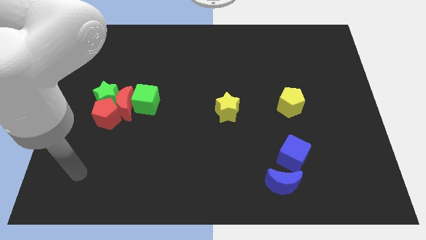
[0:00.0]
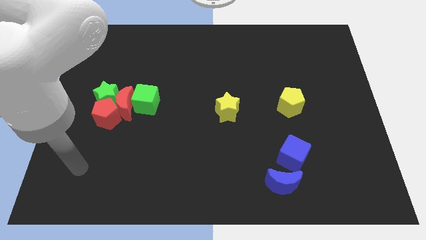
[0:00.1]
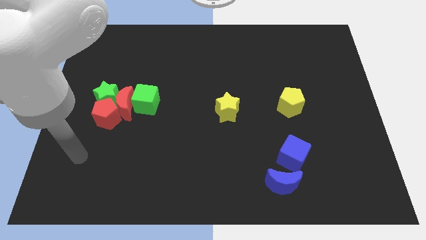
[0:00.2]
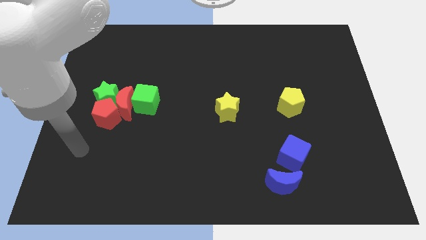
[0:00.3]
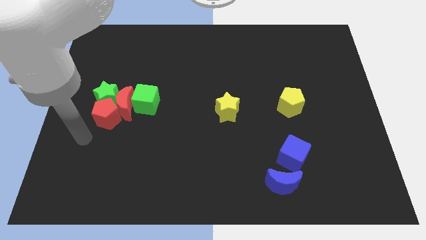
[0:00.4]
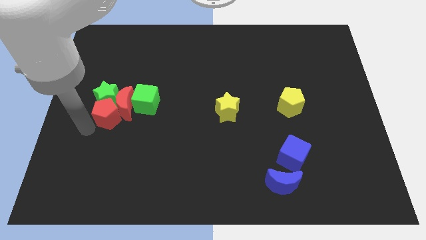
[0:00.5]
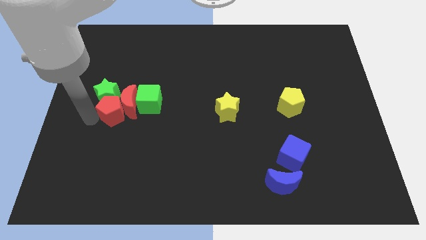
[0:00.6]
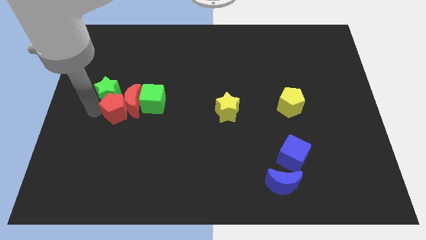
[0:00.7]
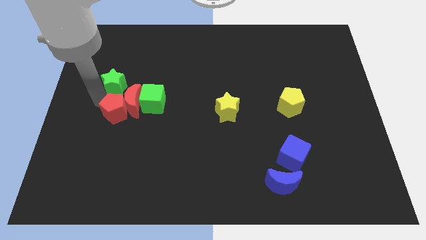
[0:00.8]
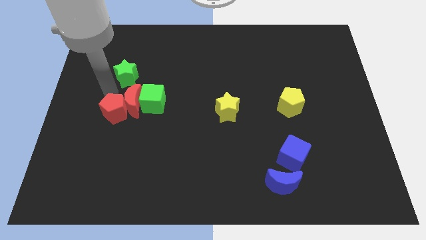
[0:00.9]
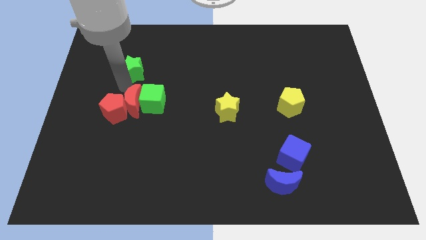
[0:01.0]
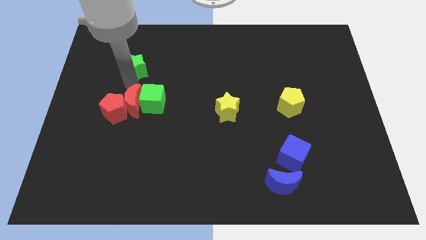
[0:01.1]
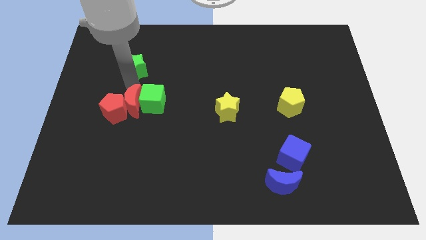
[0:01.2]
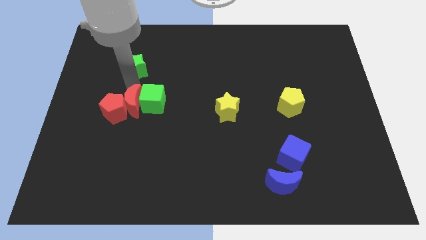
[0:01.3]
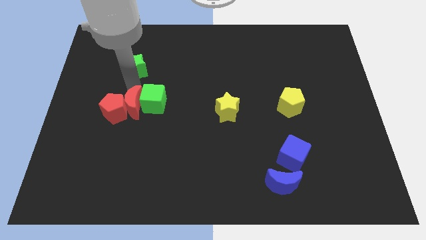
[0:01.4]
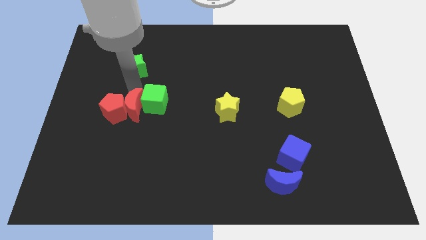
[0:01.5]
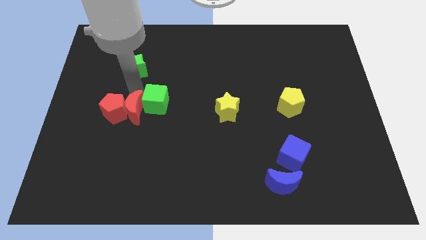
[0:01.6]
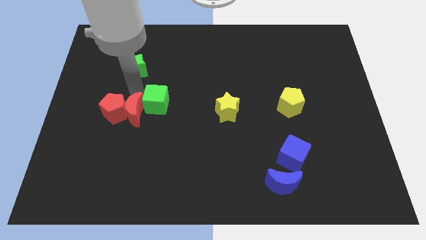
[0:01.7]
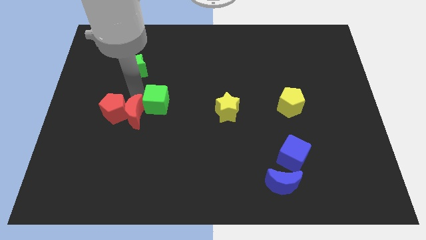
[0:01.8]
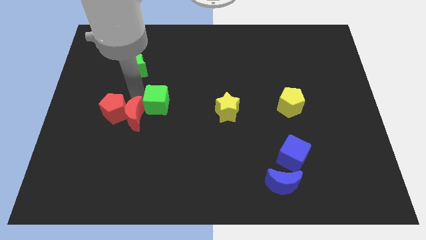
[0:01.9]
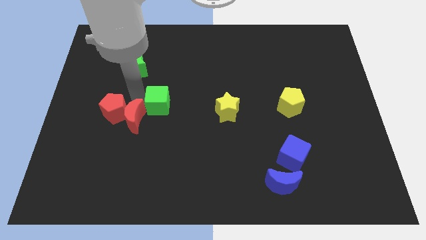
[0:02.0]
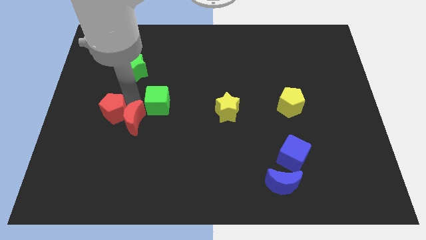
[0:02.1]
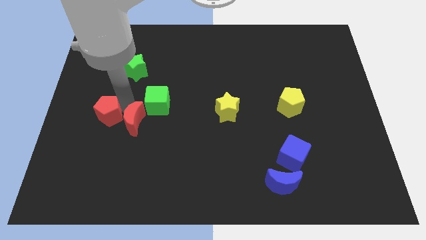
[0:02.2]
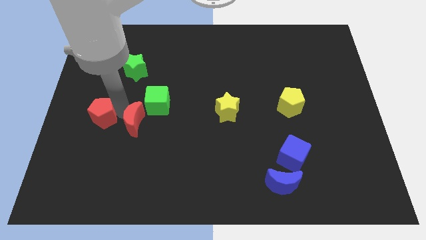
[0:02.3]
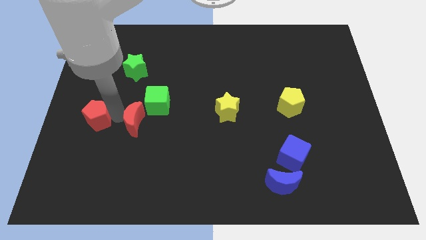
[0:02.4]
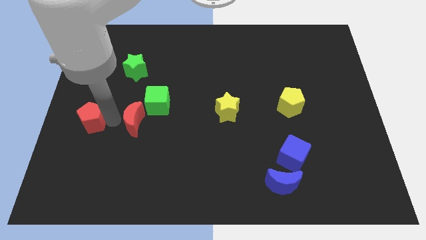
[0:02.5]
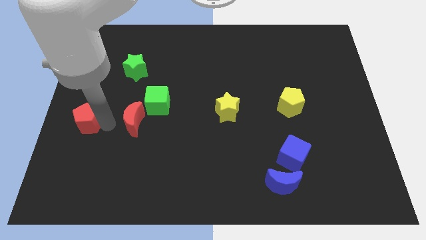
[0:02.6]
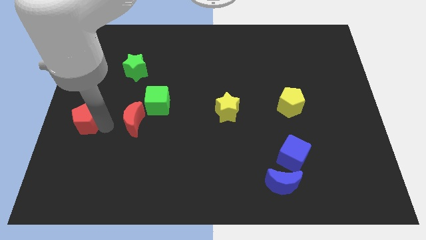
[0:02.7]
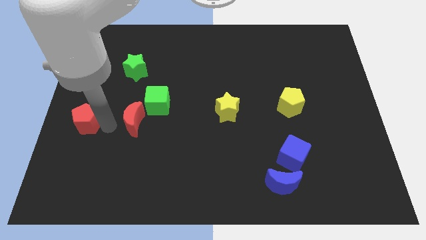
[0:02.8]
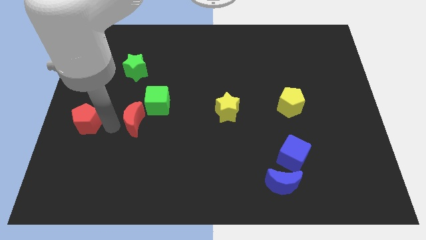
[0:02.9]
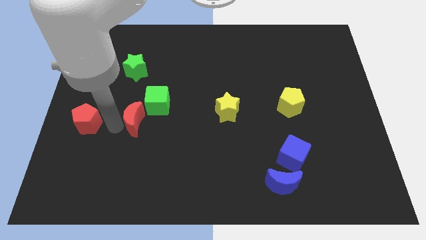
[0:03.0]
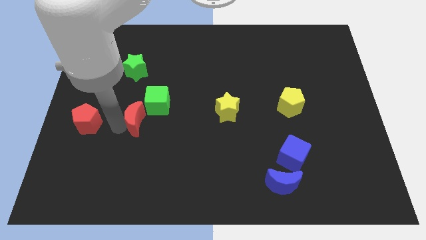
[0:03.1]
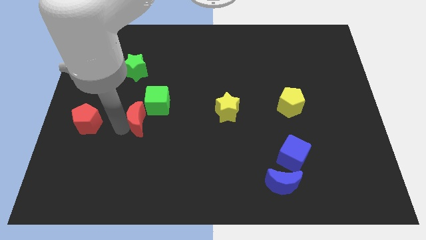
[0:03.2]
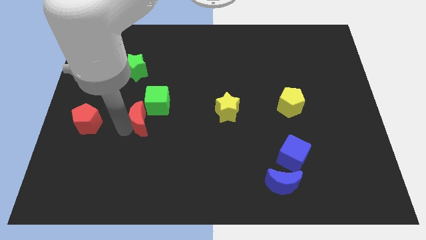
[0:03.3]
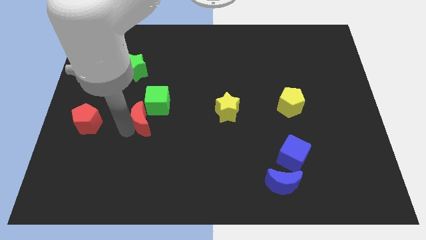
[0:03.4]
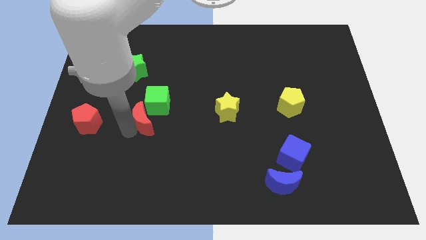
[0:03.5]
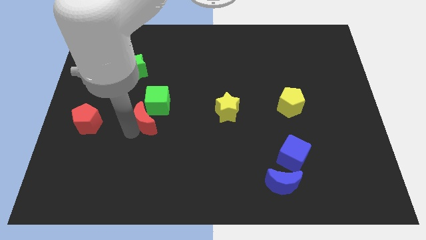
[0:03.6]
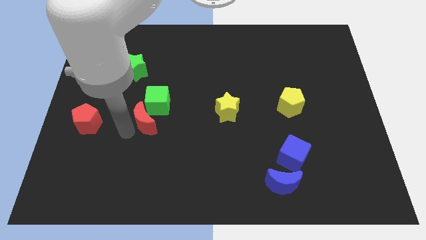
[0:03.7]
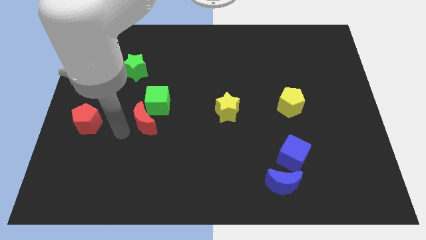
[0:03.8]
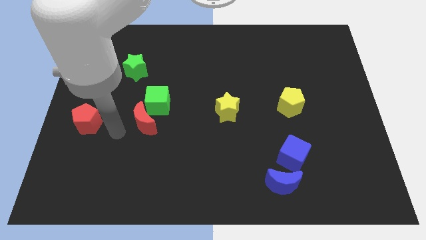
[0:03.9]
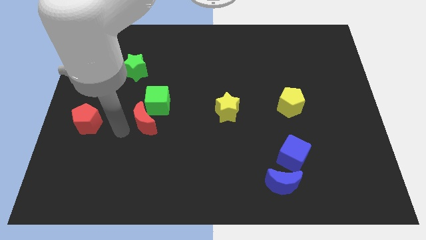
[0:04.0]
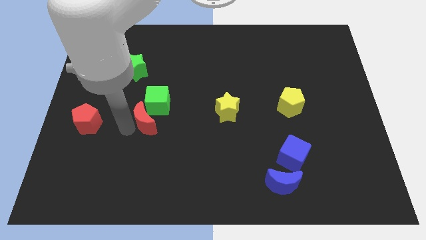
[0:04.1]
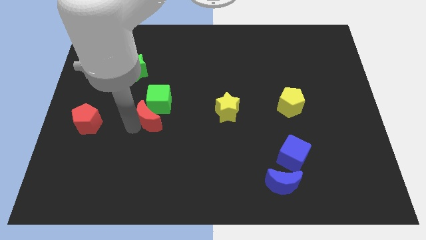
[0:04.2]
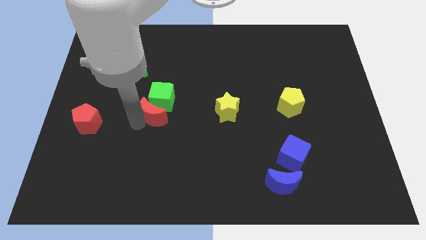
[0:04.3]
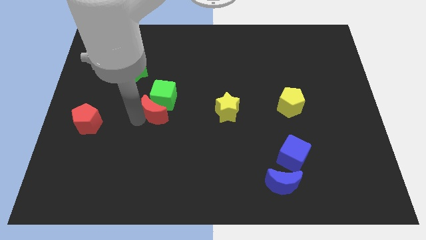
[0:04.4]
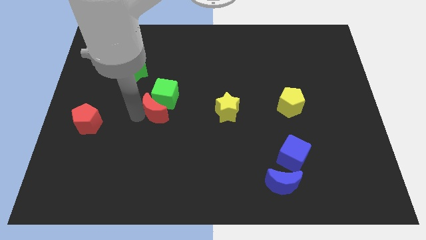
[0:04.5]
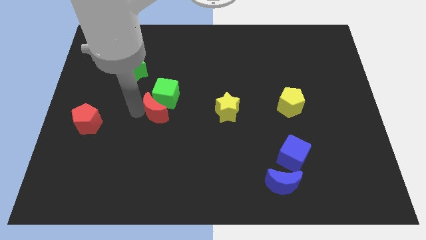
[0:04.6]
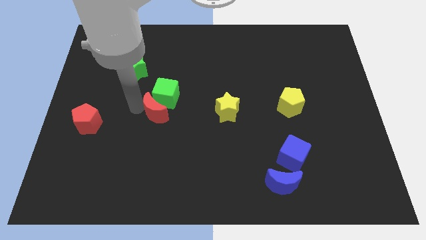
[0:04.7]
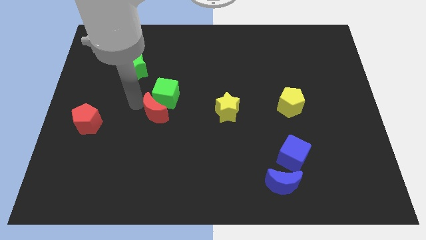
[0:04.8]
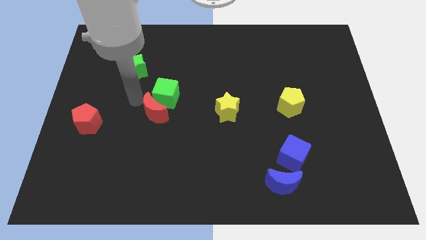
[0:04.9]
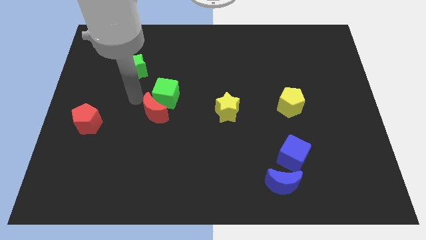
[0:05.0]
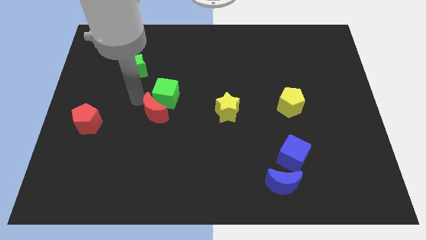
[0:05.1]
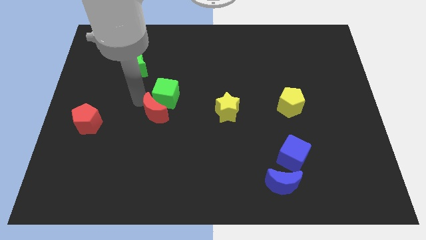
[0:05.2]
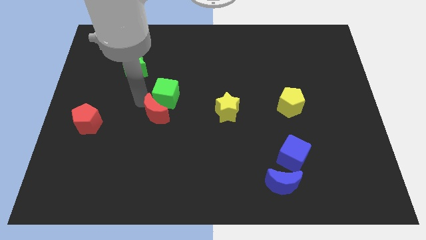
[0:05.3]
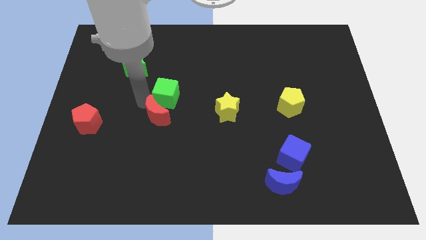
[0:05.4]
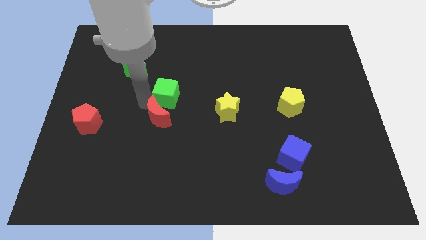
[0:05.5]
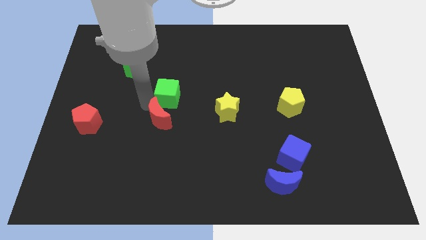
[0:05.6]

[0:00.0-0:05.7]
separate the red moon from the red pentagon, green star, and green cube

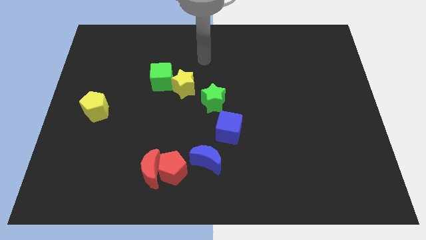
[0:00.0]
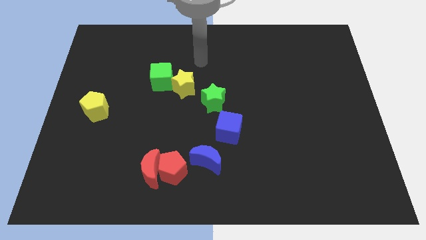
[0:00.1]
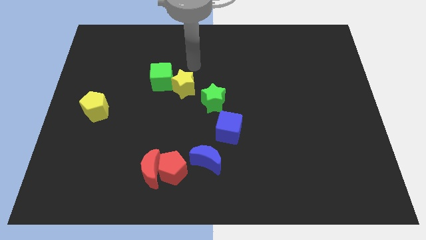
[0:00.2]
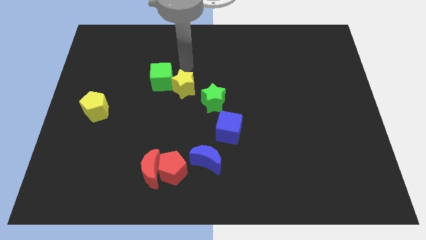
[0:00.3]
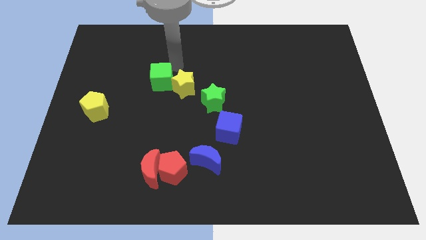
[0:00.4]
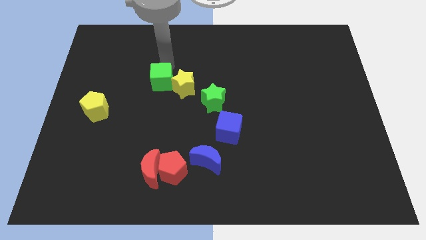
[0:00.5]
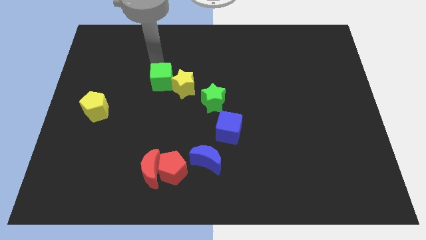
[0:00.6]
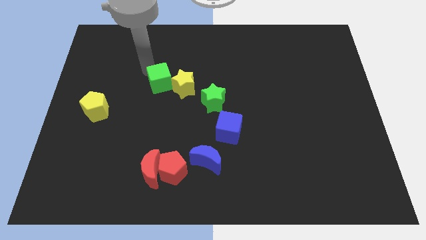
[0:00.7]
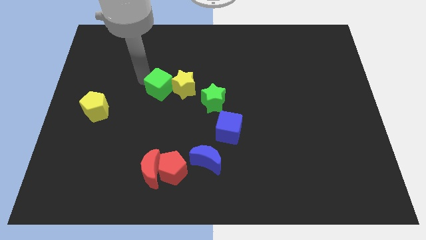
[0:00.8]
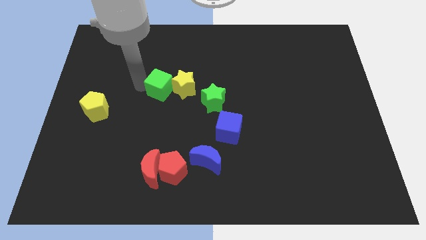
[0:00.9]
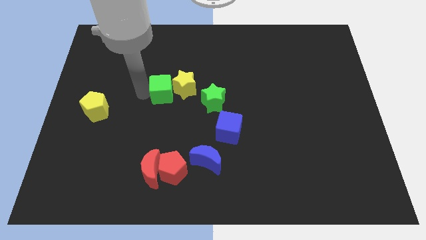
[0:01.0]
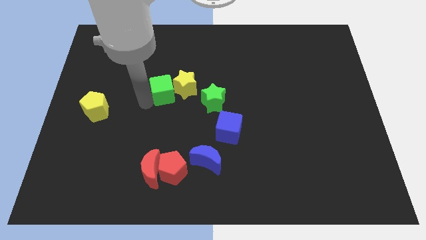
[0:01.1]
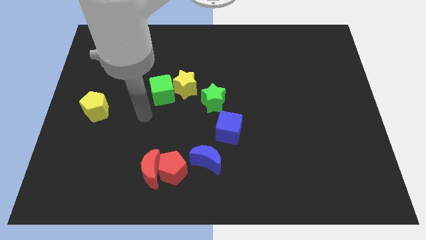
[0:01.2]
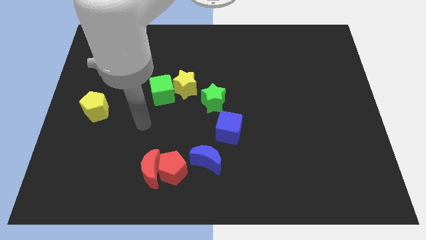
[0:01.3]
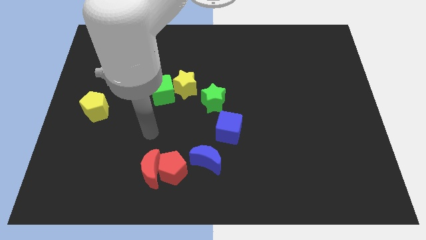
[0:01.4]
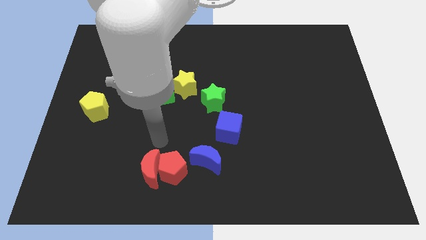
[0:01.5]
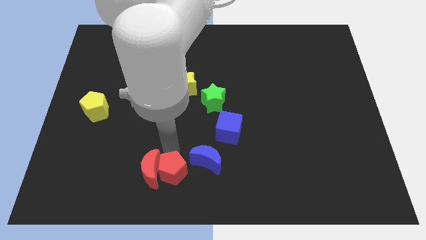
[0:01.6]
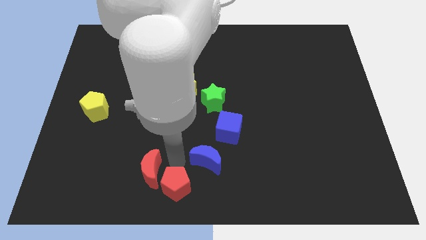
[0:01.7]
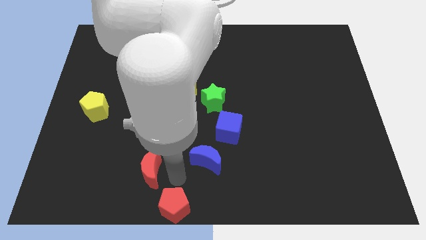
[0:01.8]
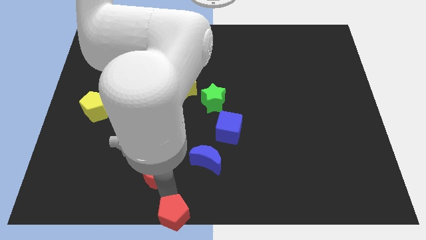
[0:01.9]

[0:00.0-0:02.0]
pull the red moon apart from the red pentagon

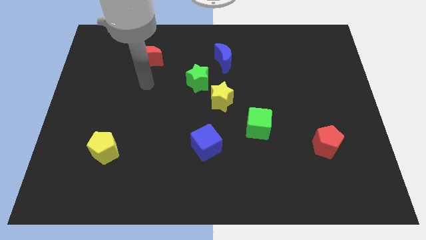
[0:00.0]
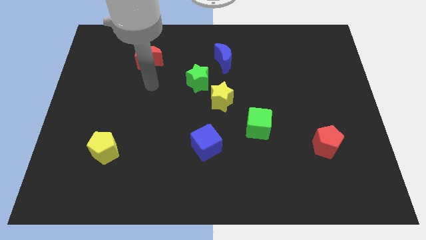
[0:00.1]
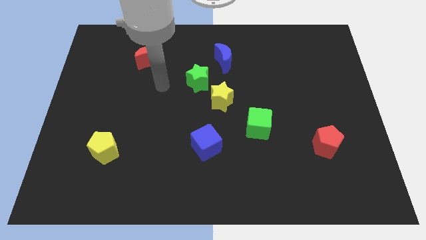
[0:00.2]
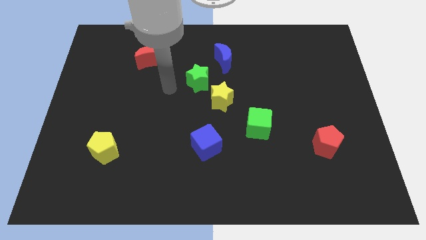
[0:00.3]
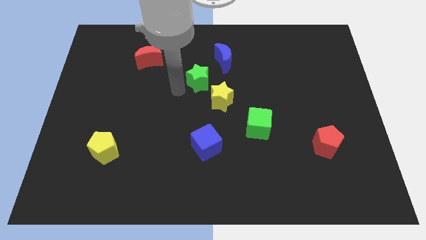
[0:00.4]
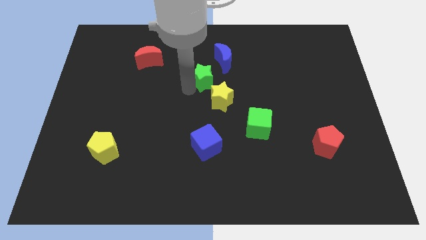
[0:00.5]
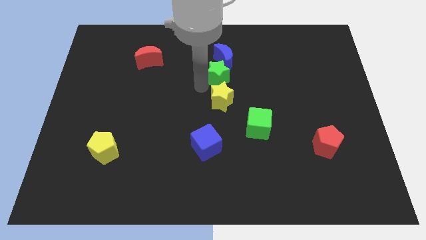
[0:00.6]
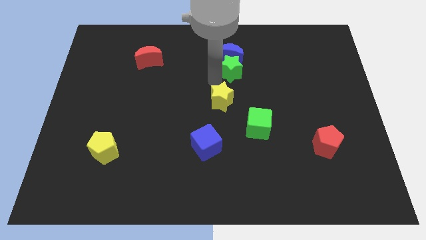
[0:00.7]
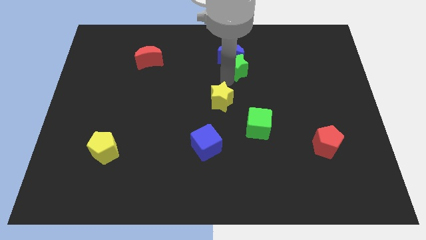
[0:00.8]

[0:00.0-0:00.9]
move the yellow star away from the green star

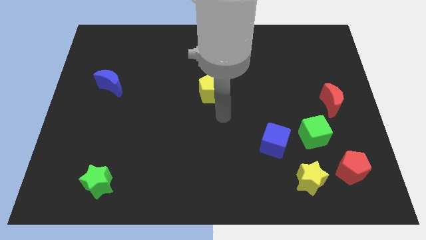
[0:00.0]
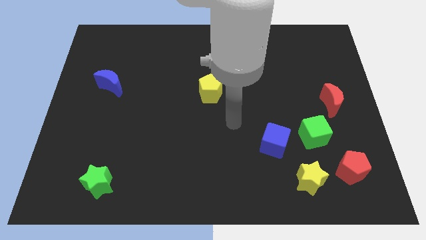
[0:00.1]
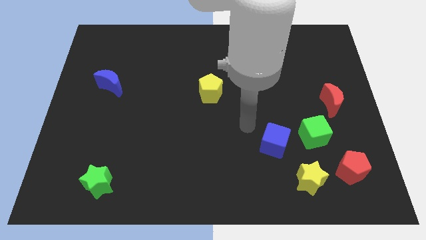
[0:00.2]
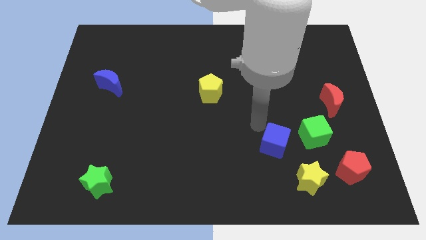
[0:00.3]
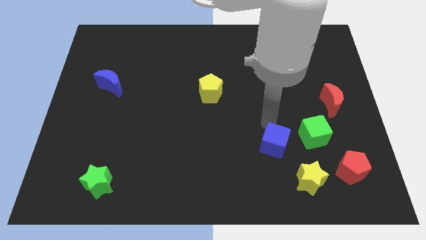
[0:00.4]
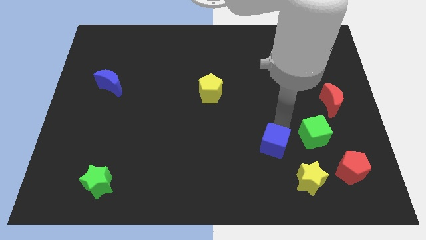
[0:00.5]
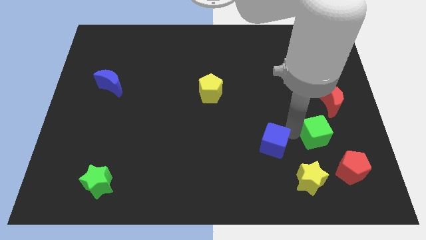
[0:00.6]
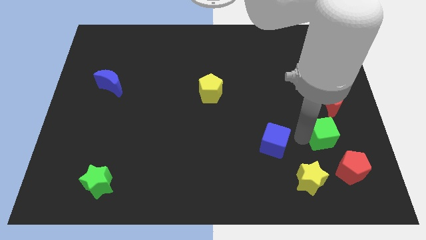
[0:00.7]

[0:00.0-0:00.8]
pull the blue cube apart from the green cube
